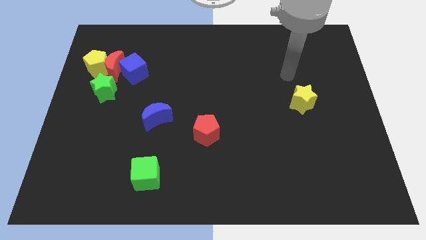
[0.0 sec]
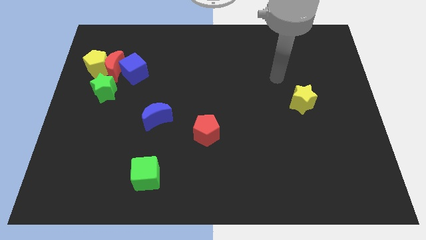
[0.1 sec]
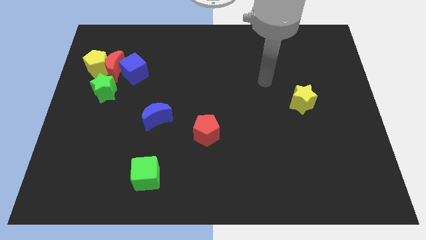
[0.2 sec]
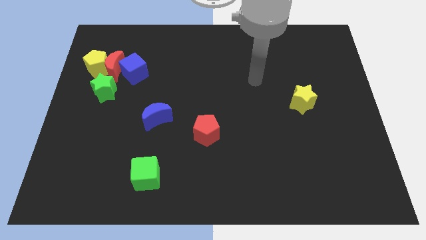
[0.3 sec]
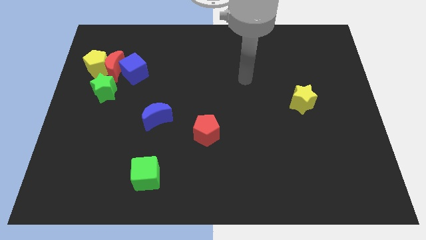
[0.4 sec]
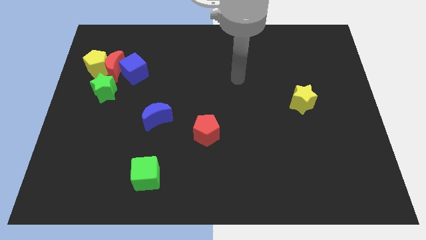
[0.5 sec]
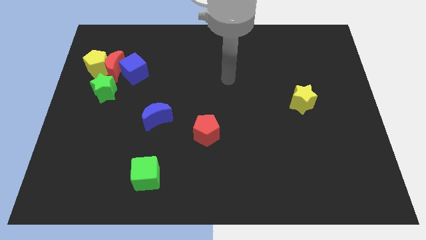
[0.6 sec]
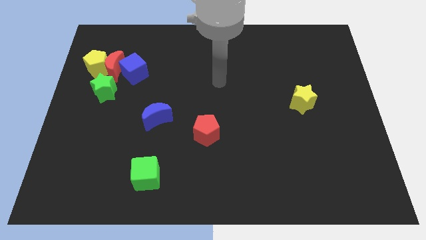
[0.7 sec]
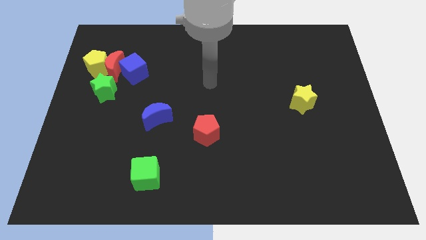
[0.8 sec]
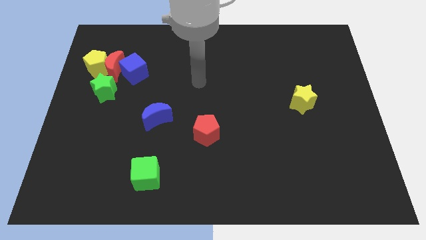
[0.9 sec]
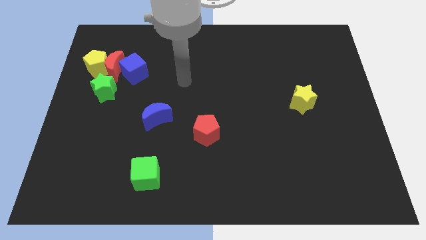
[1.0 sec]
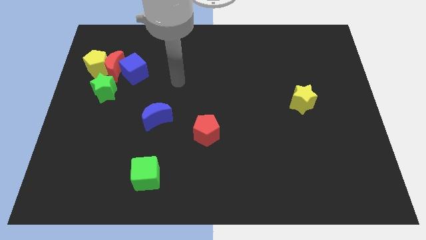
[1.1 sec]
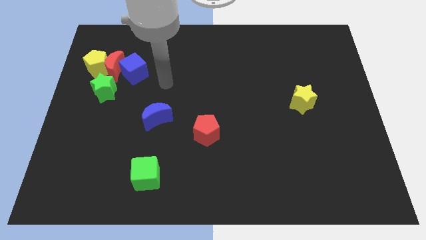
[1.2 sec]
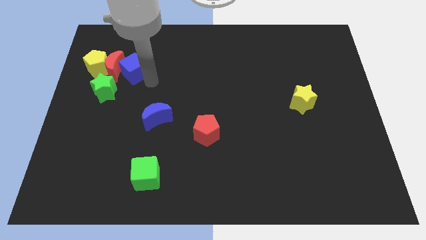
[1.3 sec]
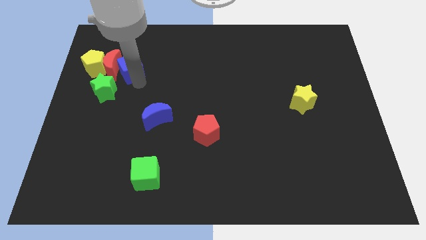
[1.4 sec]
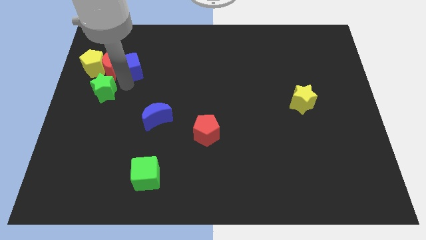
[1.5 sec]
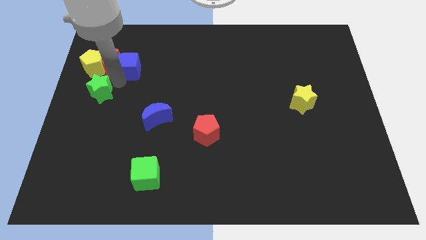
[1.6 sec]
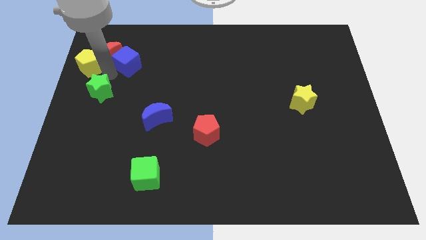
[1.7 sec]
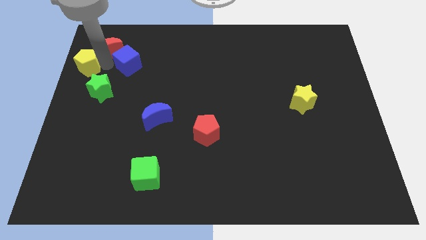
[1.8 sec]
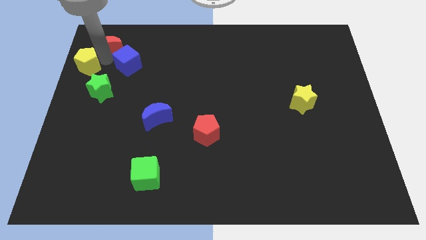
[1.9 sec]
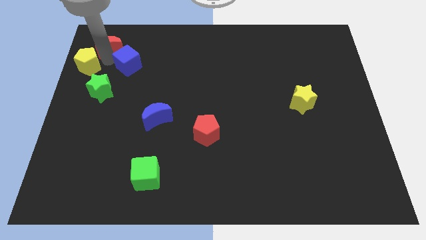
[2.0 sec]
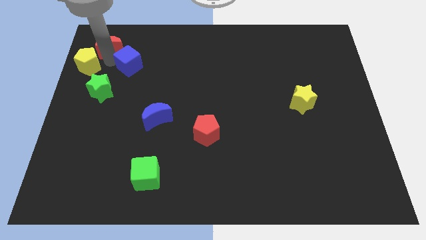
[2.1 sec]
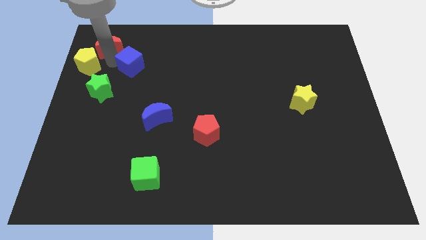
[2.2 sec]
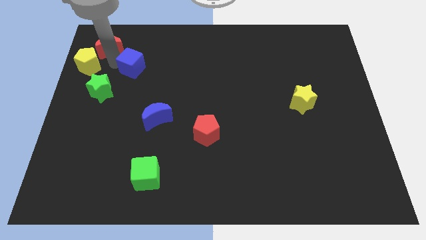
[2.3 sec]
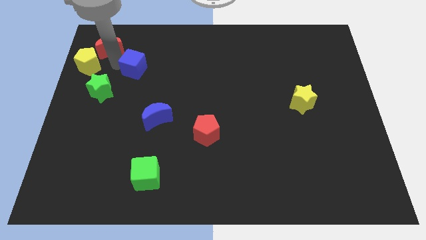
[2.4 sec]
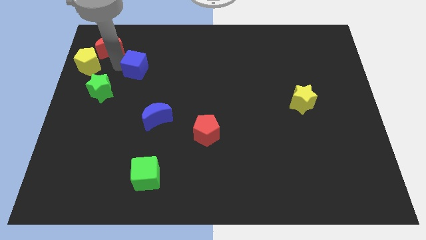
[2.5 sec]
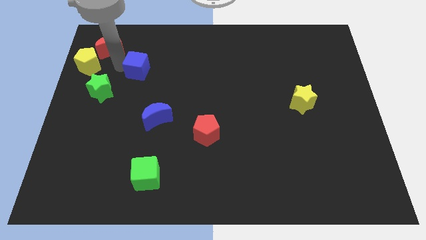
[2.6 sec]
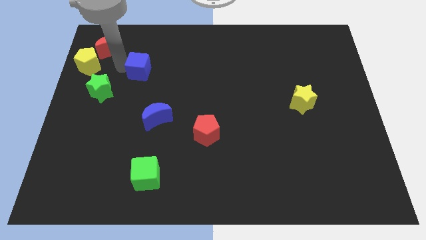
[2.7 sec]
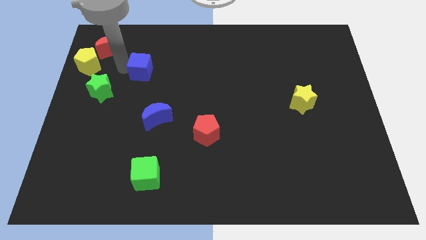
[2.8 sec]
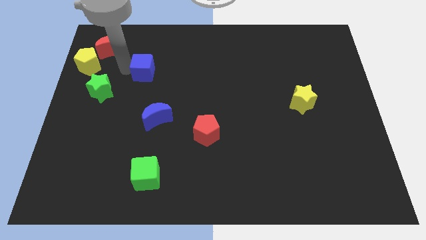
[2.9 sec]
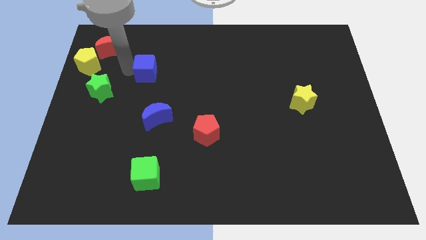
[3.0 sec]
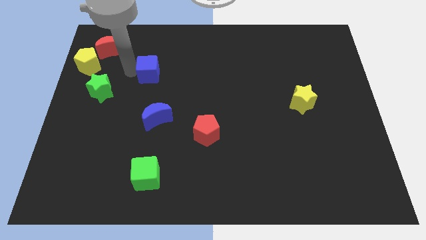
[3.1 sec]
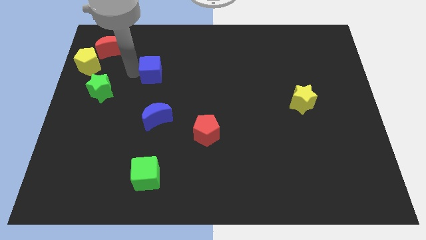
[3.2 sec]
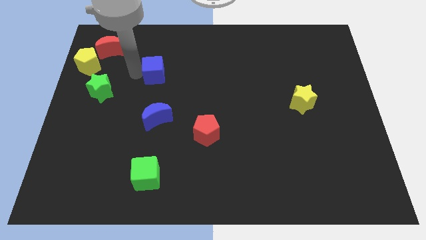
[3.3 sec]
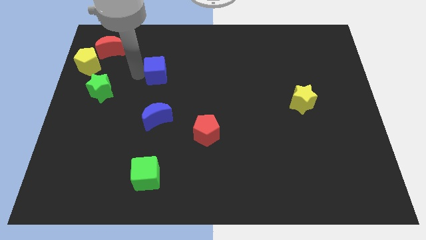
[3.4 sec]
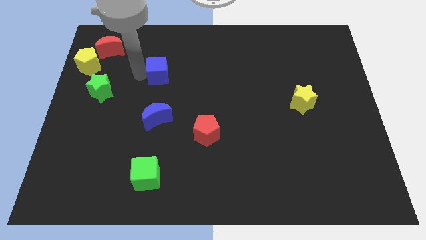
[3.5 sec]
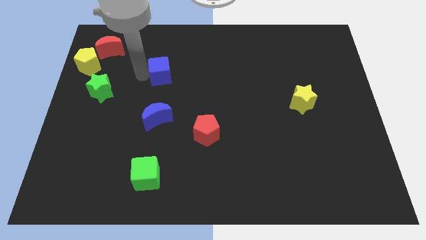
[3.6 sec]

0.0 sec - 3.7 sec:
slide the blue cube to the right somewhat

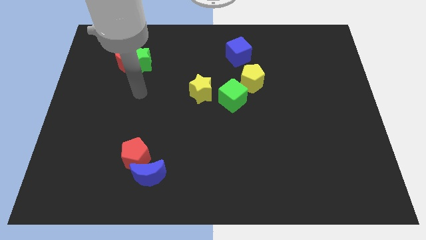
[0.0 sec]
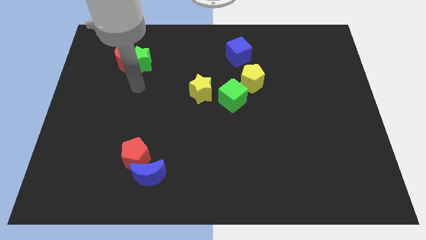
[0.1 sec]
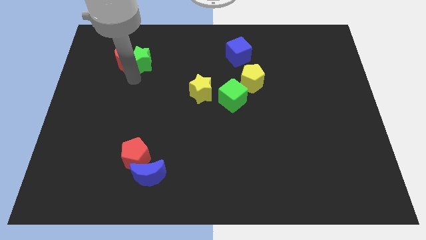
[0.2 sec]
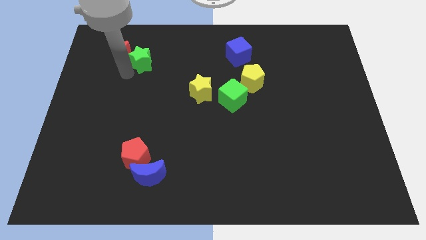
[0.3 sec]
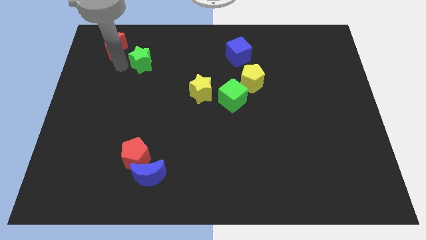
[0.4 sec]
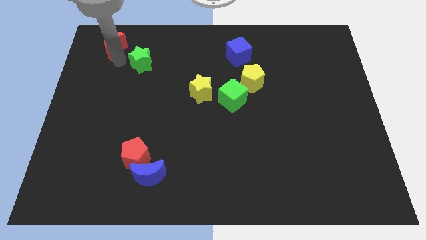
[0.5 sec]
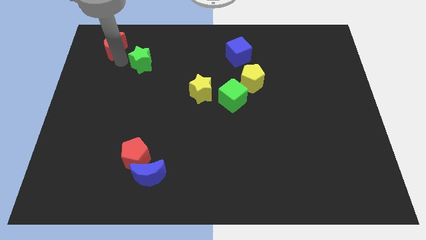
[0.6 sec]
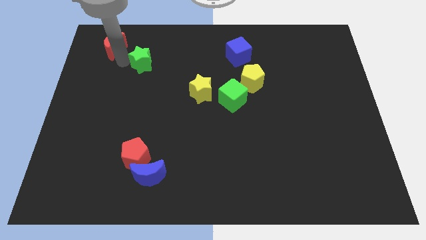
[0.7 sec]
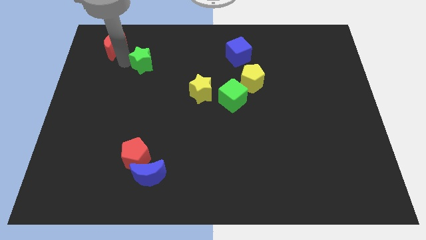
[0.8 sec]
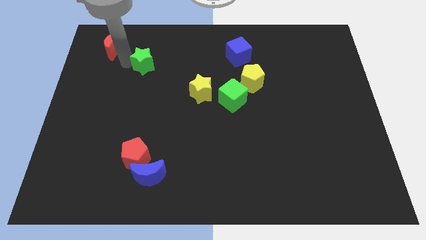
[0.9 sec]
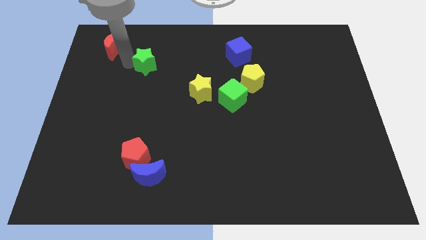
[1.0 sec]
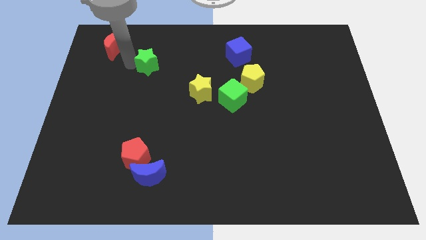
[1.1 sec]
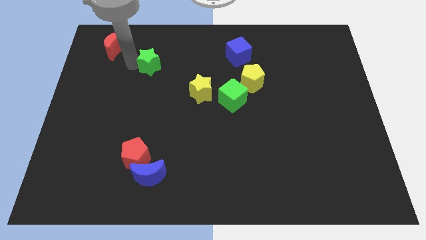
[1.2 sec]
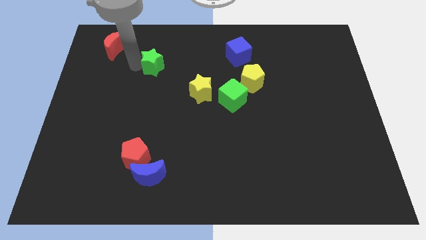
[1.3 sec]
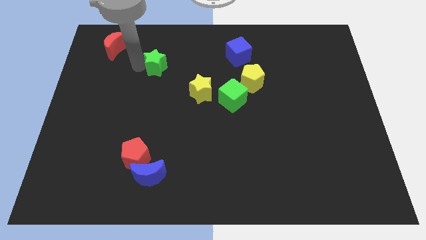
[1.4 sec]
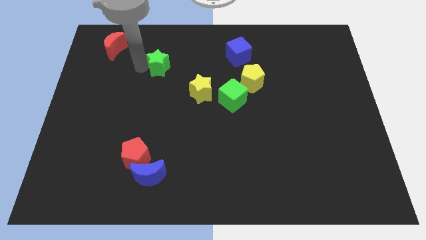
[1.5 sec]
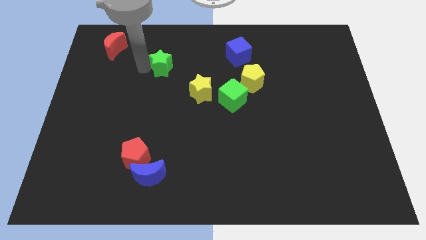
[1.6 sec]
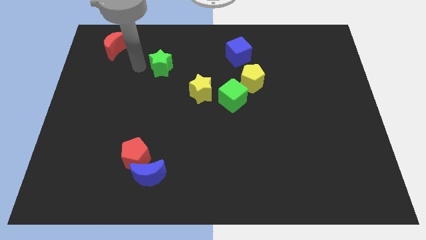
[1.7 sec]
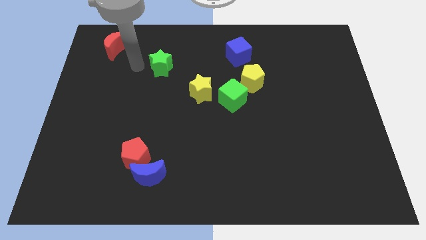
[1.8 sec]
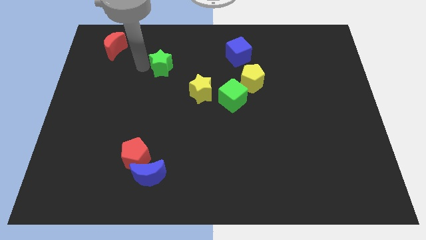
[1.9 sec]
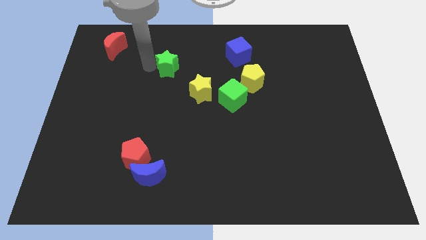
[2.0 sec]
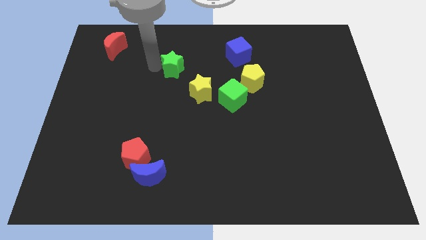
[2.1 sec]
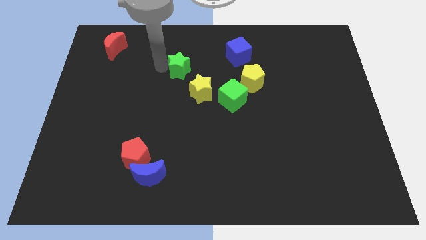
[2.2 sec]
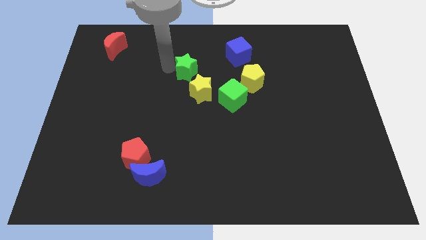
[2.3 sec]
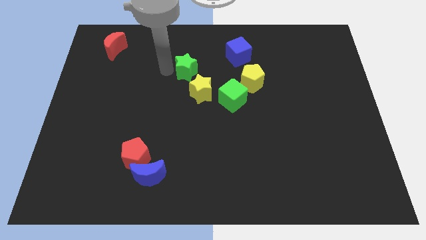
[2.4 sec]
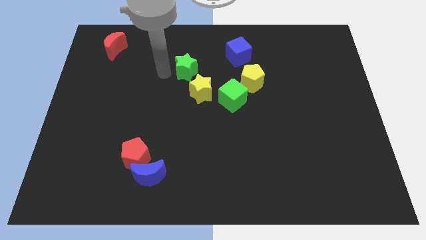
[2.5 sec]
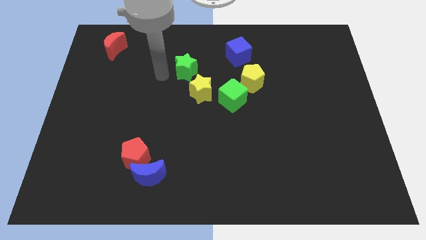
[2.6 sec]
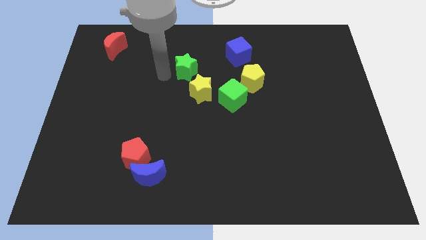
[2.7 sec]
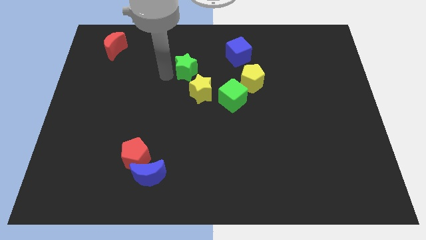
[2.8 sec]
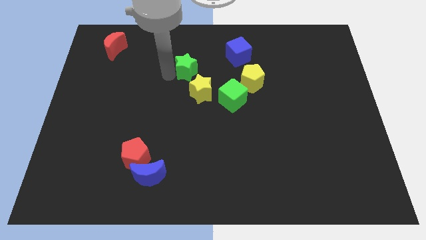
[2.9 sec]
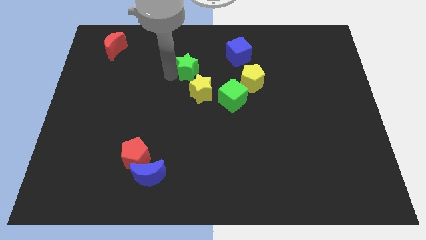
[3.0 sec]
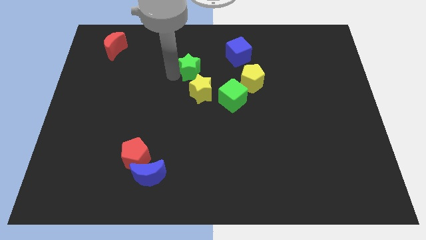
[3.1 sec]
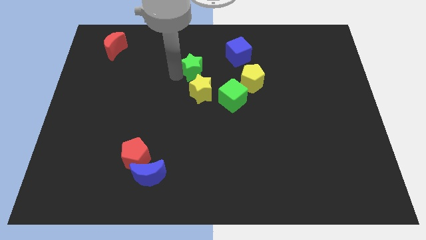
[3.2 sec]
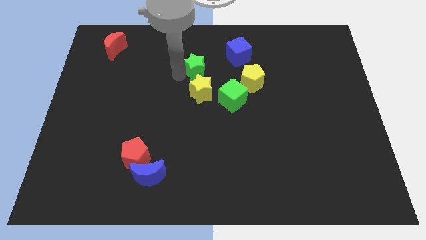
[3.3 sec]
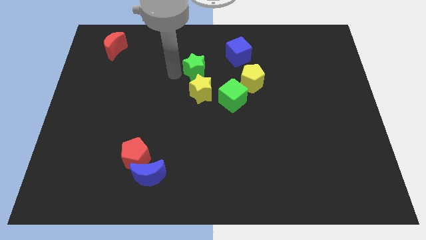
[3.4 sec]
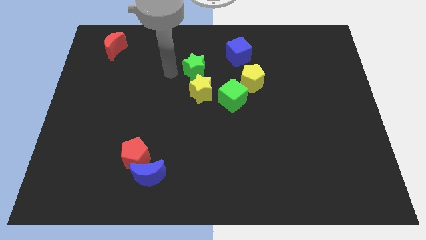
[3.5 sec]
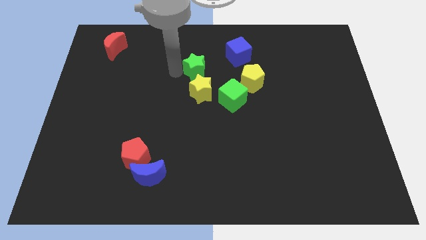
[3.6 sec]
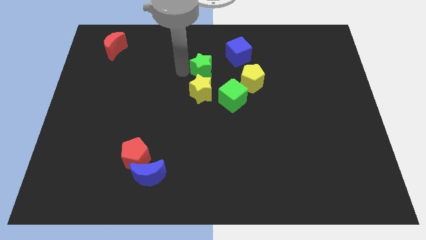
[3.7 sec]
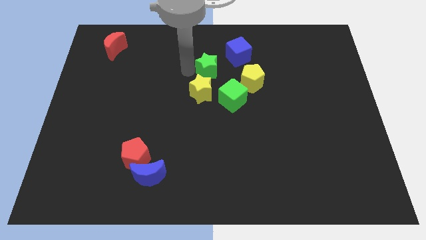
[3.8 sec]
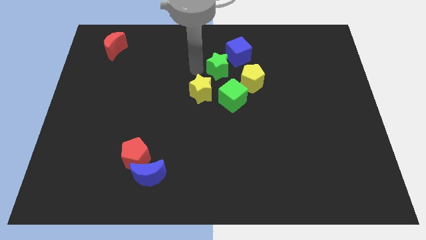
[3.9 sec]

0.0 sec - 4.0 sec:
move the green star right

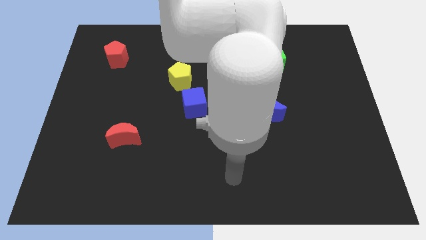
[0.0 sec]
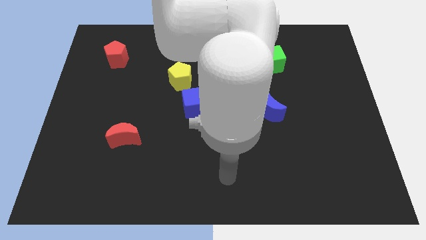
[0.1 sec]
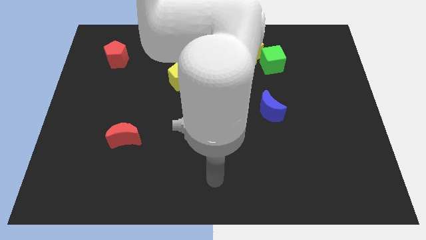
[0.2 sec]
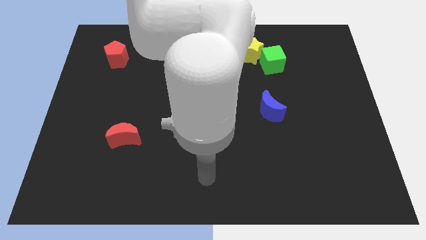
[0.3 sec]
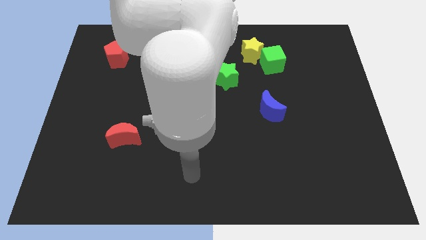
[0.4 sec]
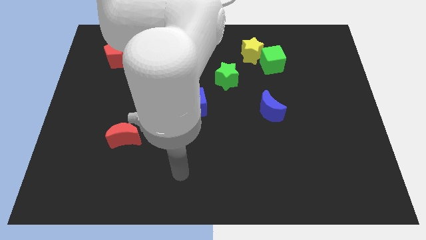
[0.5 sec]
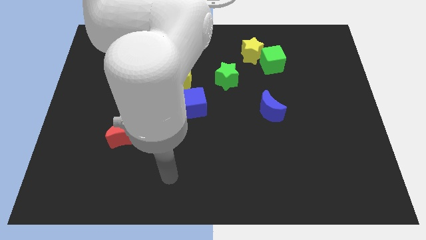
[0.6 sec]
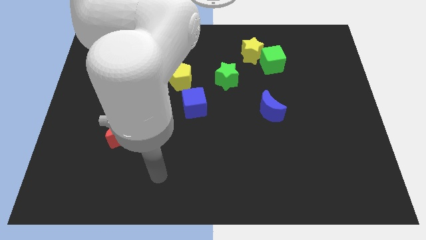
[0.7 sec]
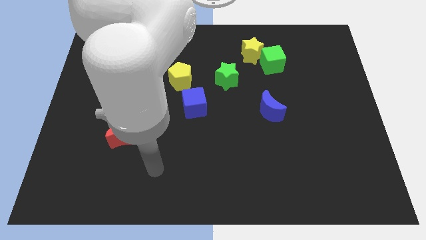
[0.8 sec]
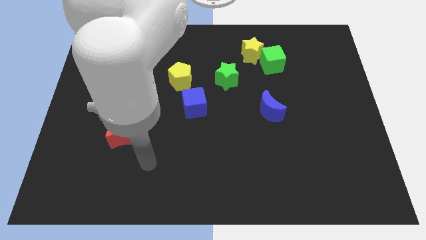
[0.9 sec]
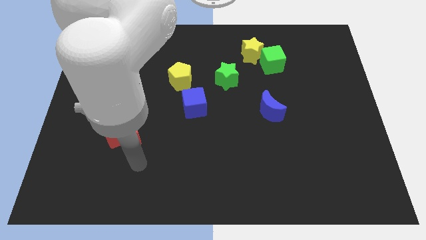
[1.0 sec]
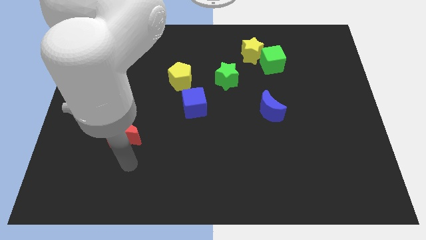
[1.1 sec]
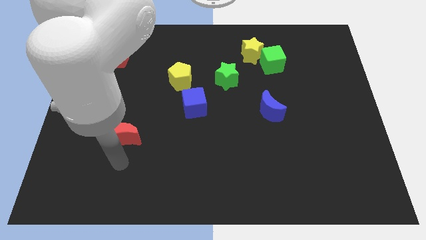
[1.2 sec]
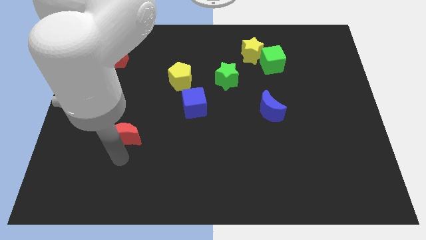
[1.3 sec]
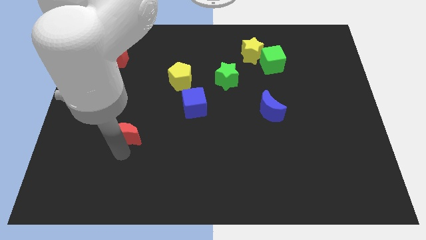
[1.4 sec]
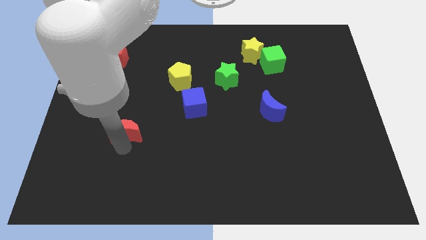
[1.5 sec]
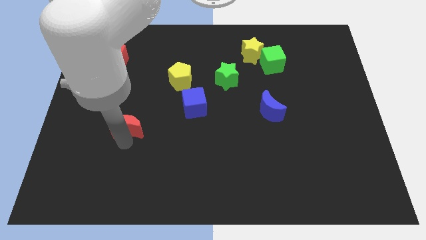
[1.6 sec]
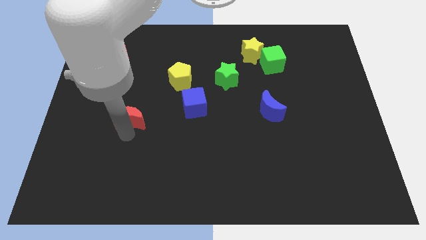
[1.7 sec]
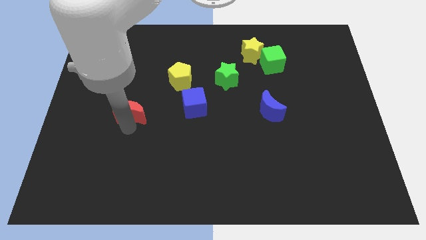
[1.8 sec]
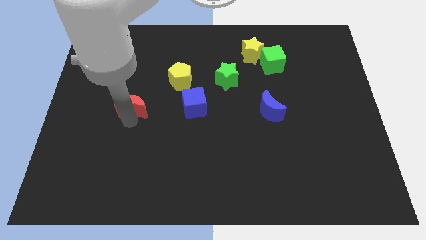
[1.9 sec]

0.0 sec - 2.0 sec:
push the red moon upwards a little
